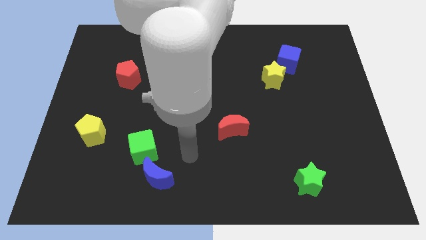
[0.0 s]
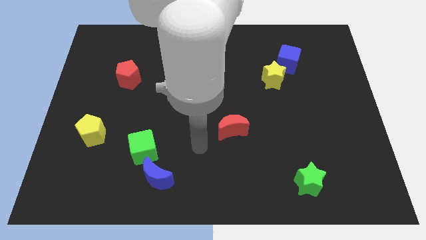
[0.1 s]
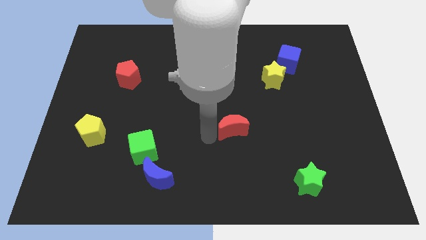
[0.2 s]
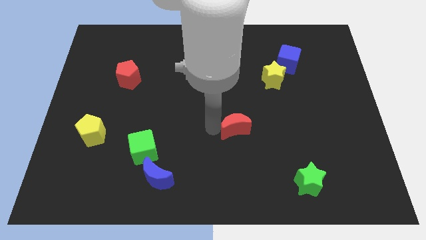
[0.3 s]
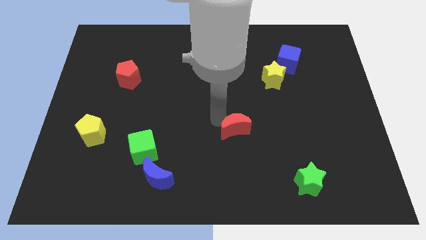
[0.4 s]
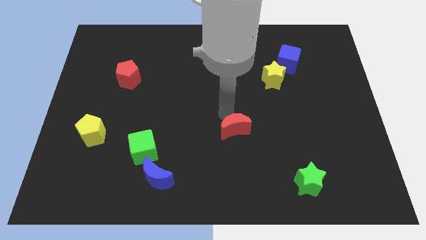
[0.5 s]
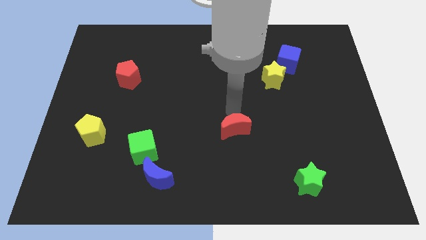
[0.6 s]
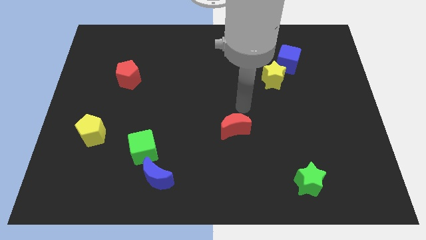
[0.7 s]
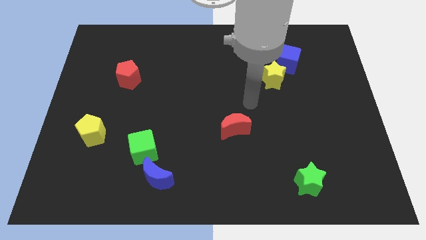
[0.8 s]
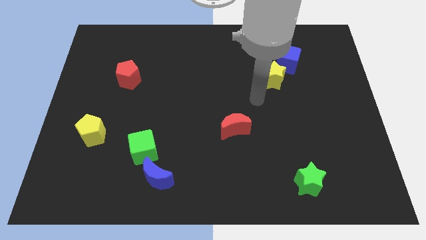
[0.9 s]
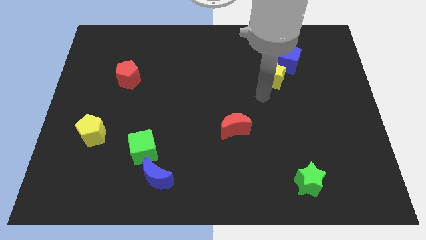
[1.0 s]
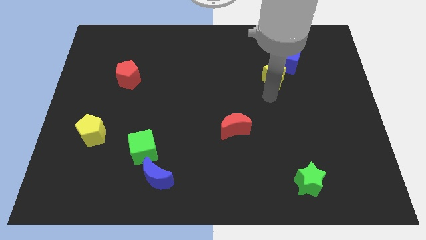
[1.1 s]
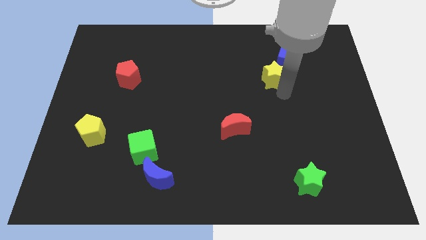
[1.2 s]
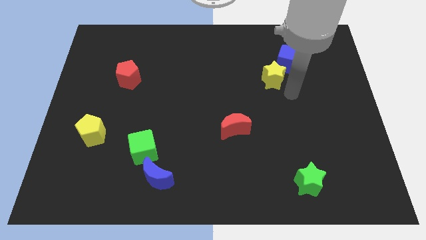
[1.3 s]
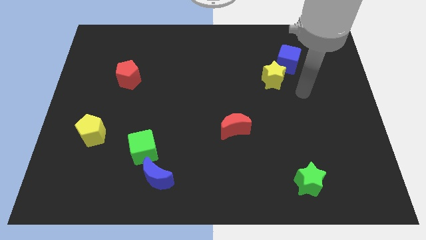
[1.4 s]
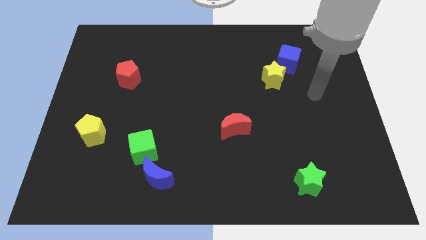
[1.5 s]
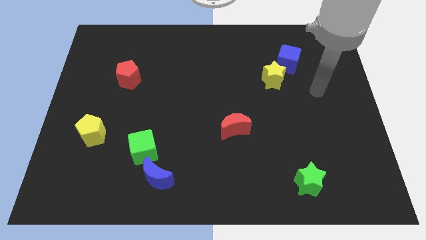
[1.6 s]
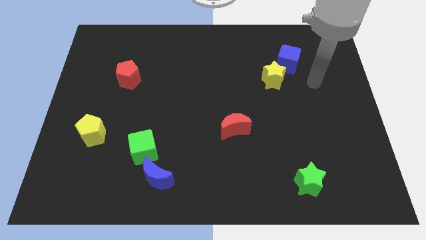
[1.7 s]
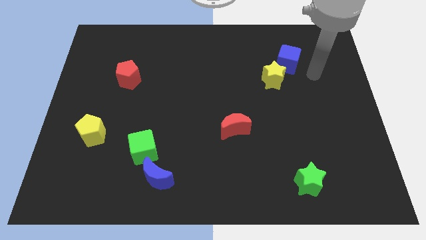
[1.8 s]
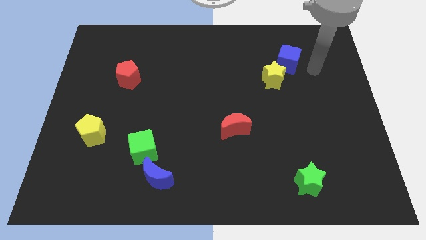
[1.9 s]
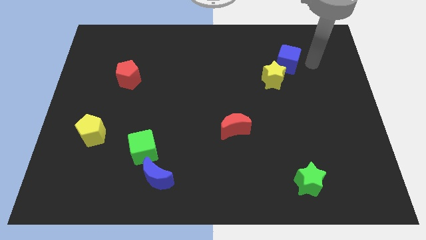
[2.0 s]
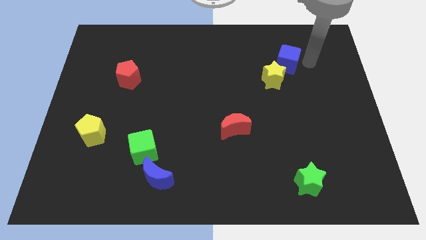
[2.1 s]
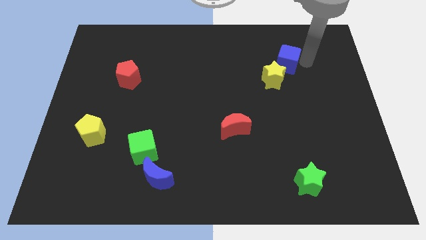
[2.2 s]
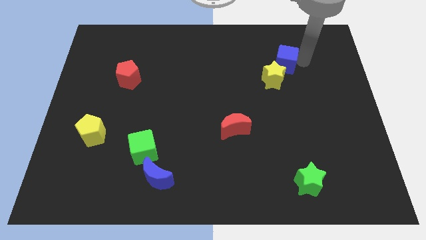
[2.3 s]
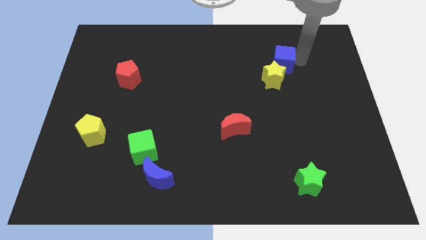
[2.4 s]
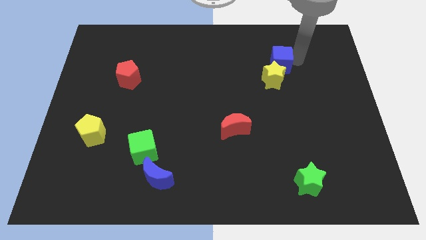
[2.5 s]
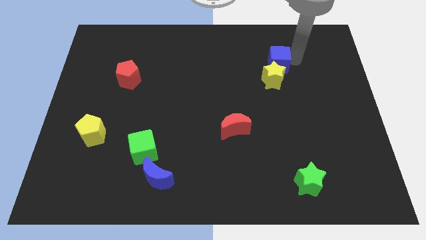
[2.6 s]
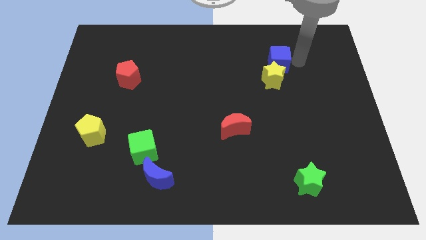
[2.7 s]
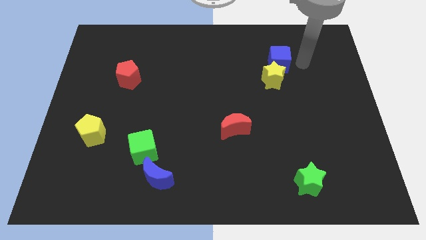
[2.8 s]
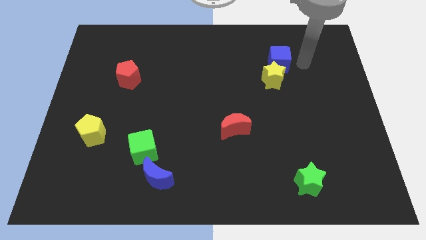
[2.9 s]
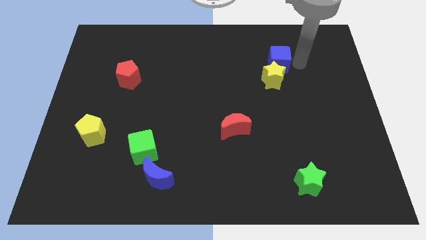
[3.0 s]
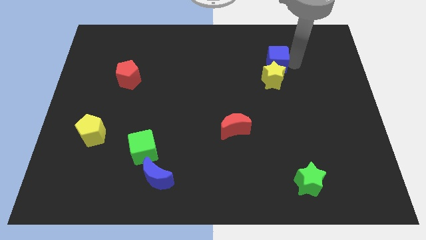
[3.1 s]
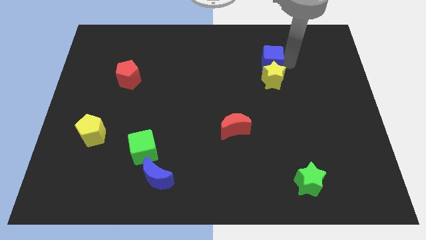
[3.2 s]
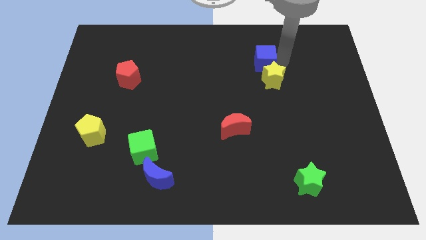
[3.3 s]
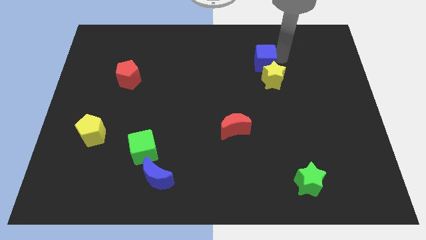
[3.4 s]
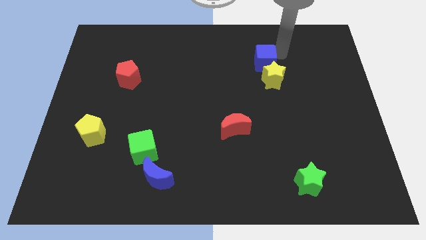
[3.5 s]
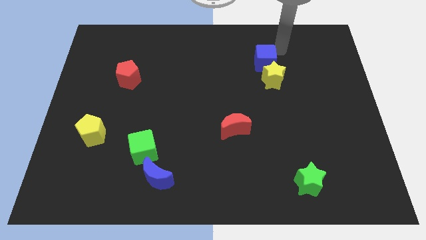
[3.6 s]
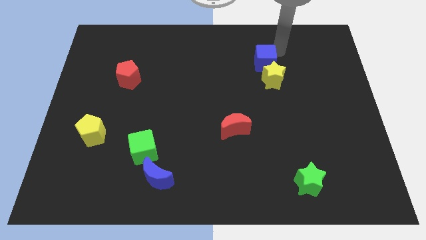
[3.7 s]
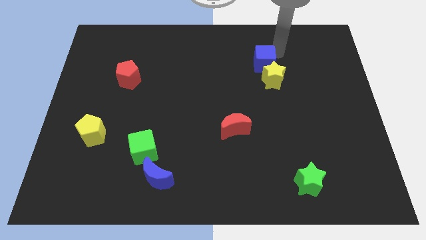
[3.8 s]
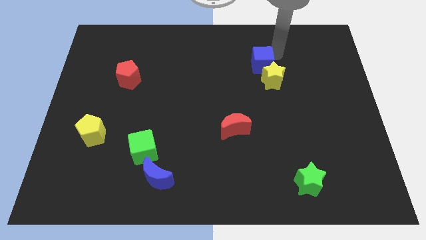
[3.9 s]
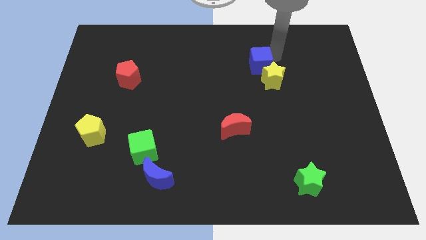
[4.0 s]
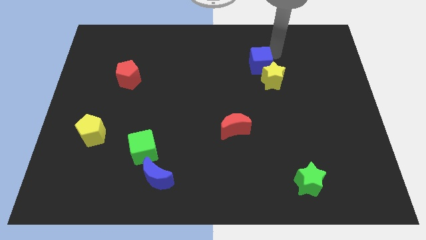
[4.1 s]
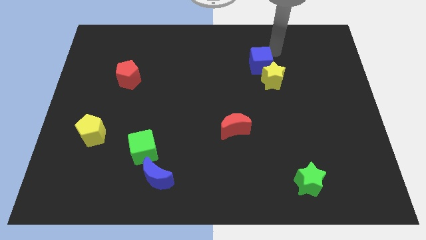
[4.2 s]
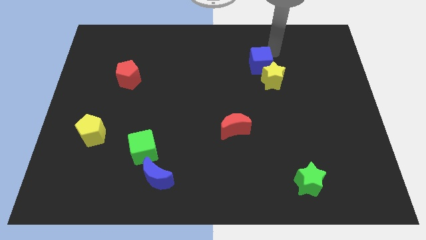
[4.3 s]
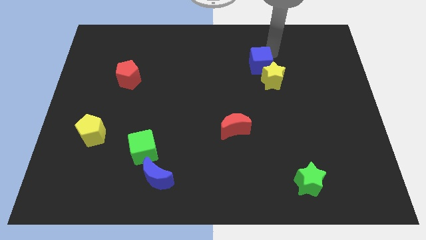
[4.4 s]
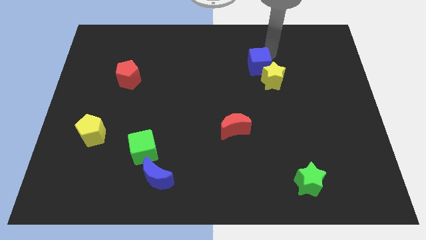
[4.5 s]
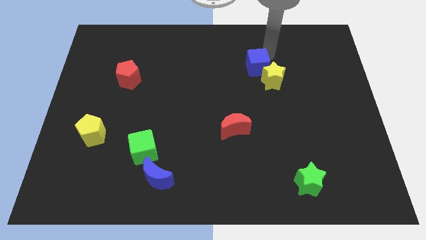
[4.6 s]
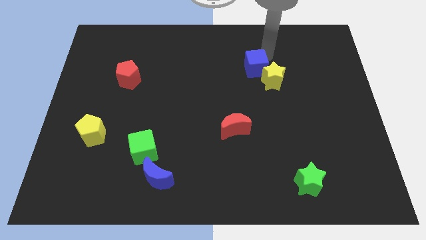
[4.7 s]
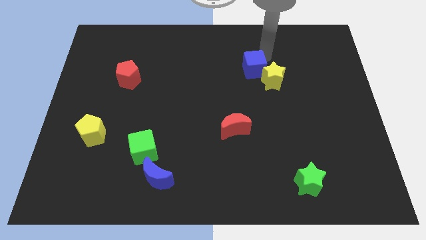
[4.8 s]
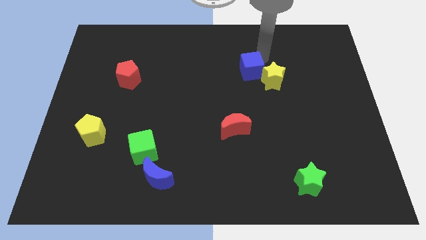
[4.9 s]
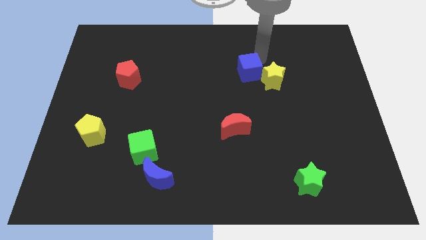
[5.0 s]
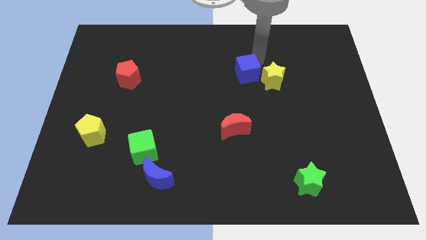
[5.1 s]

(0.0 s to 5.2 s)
put the blue cube to the center

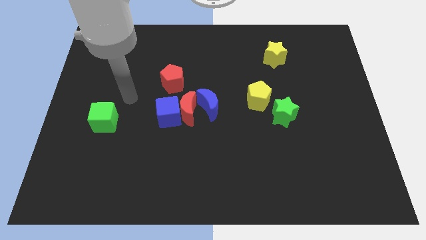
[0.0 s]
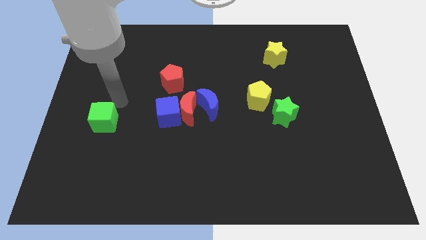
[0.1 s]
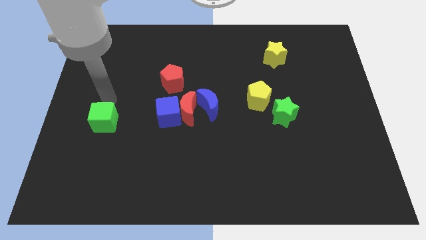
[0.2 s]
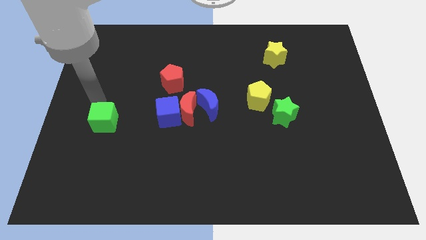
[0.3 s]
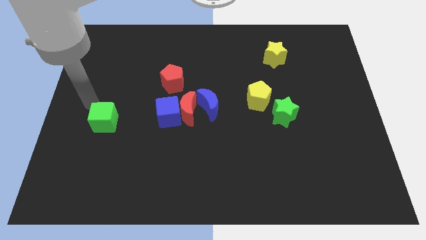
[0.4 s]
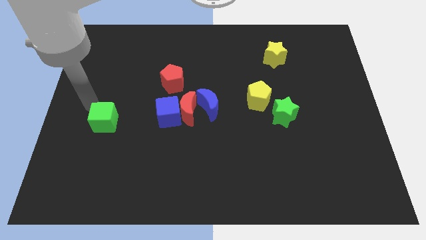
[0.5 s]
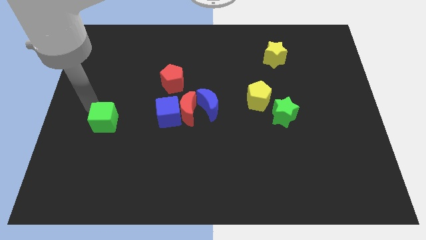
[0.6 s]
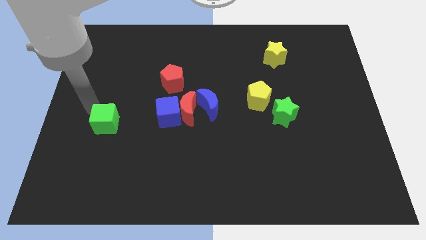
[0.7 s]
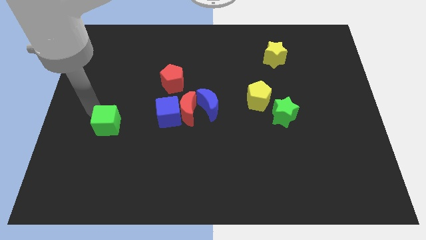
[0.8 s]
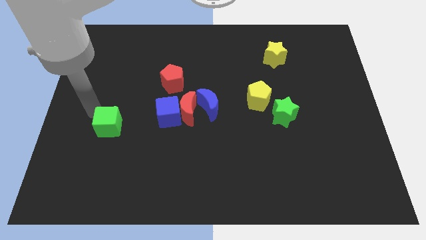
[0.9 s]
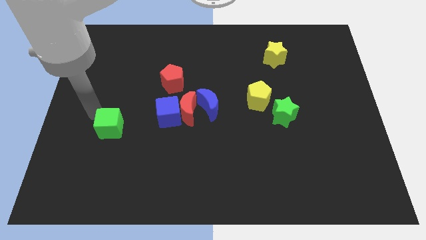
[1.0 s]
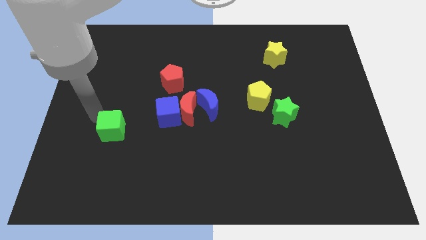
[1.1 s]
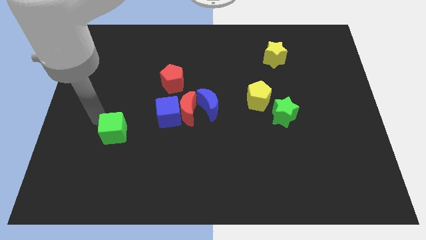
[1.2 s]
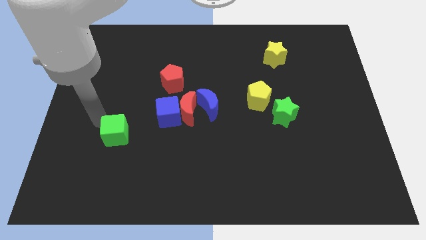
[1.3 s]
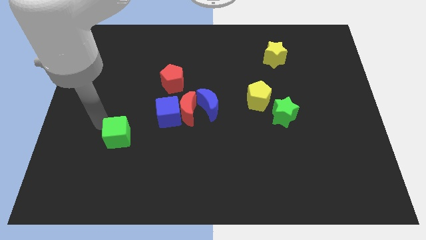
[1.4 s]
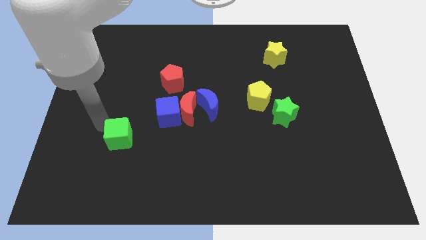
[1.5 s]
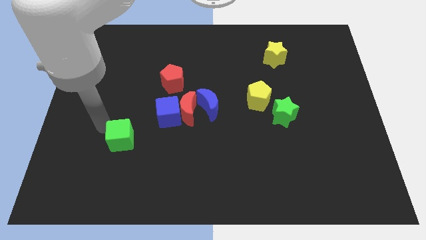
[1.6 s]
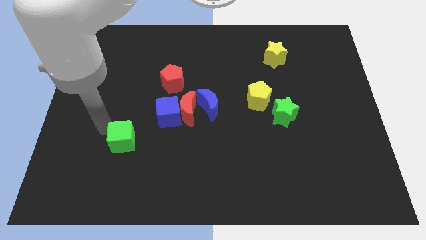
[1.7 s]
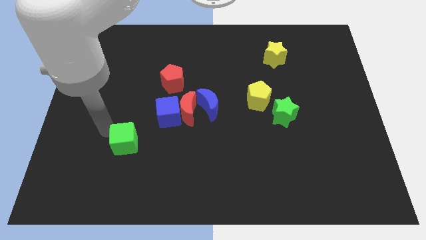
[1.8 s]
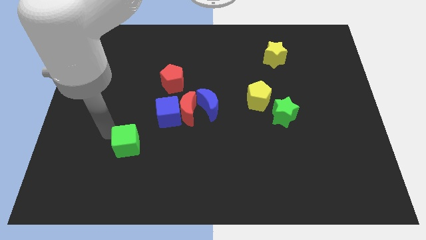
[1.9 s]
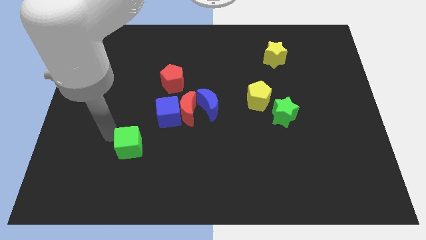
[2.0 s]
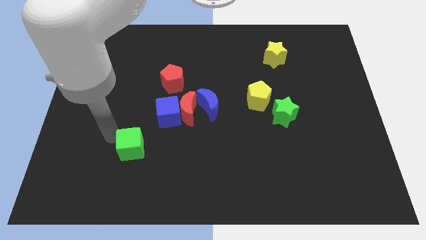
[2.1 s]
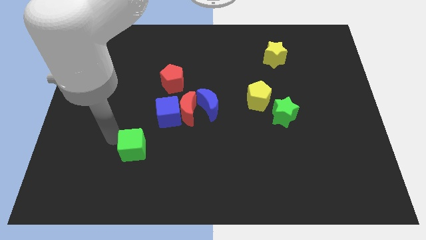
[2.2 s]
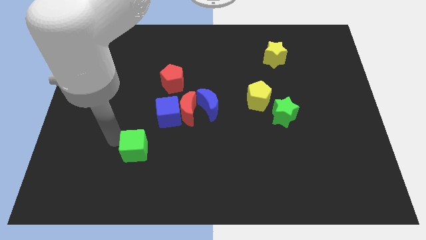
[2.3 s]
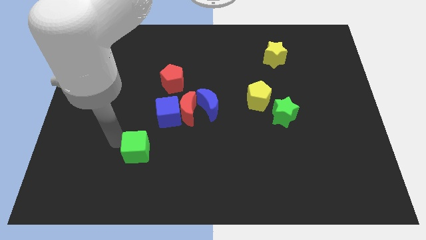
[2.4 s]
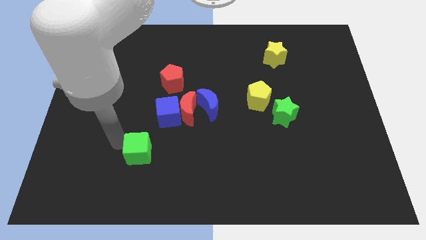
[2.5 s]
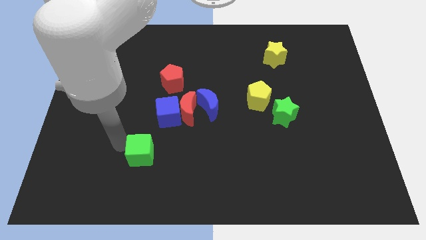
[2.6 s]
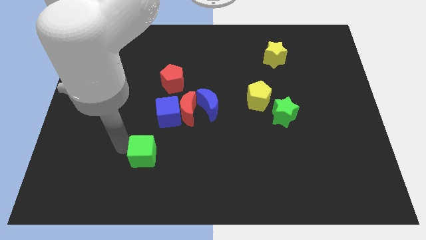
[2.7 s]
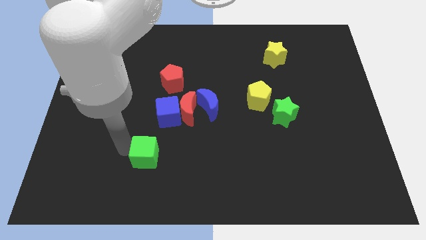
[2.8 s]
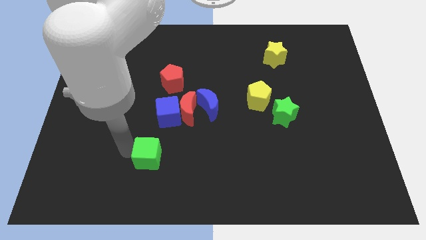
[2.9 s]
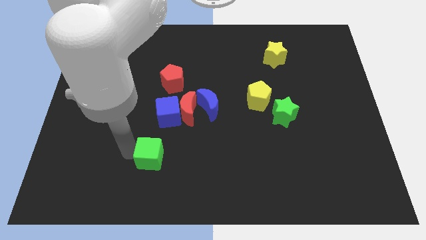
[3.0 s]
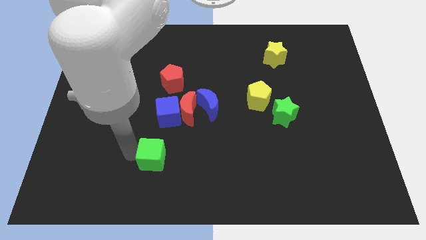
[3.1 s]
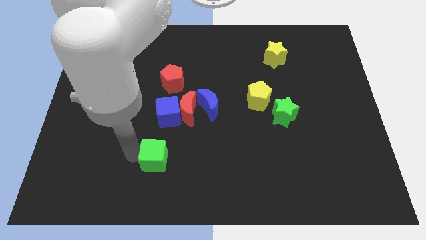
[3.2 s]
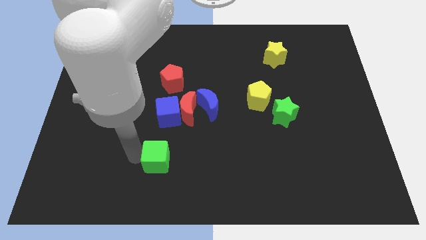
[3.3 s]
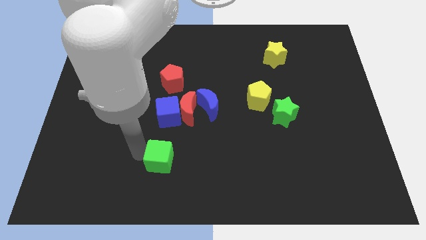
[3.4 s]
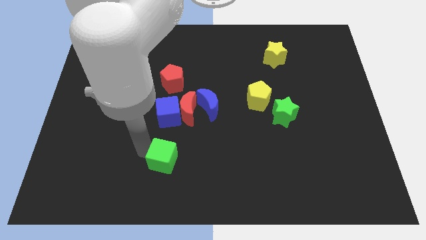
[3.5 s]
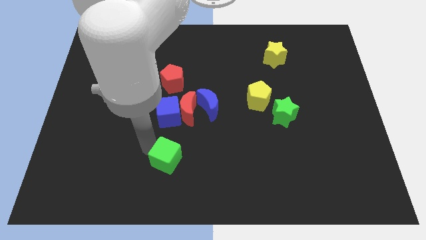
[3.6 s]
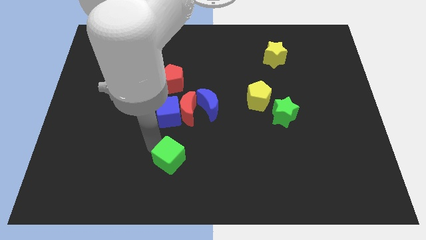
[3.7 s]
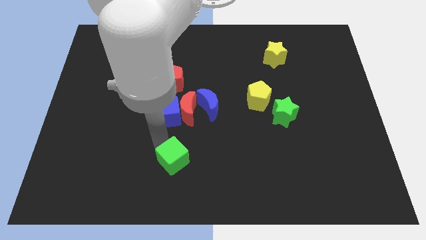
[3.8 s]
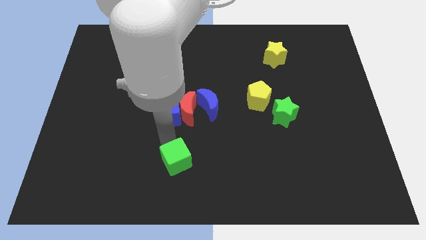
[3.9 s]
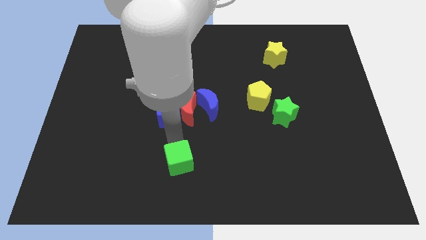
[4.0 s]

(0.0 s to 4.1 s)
push the green cube to the bottom
